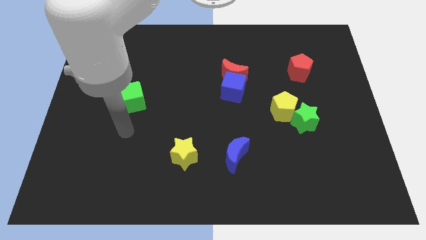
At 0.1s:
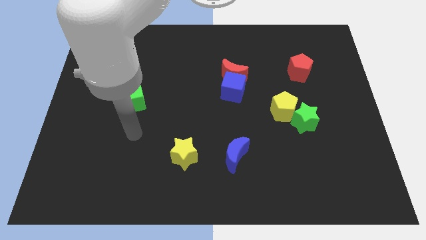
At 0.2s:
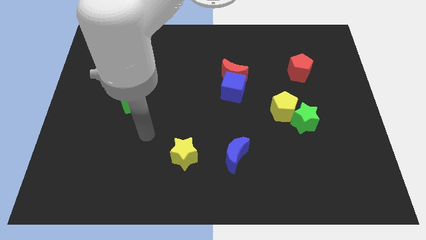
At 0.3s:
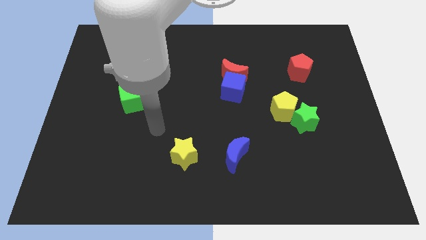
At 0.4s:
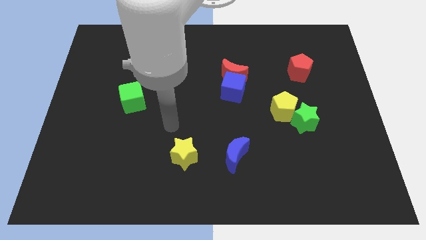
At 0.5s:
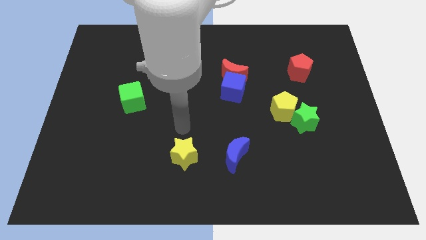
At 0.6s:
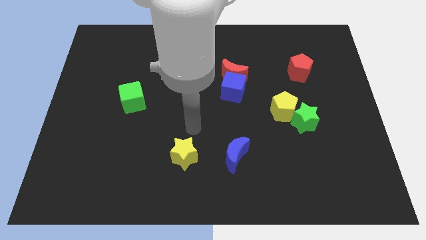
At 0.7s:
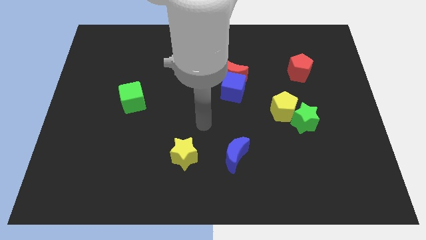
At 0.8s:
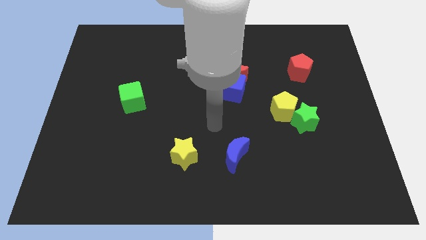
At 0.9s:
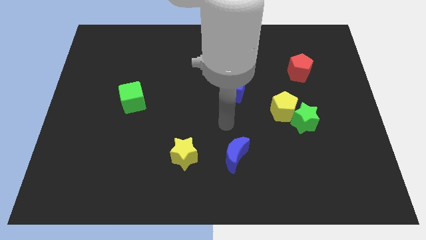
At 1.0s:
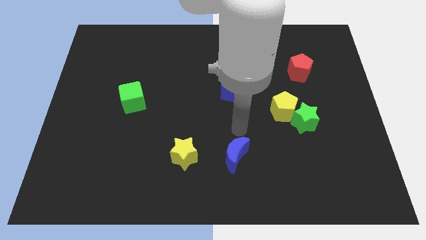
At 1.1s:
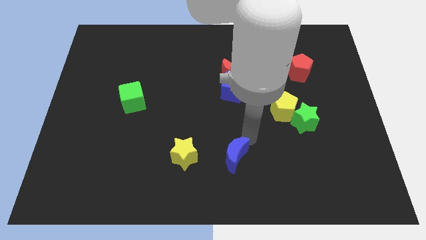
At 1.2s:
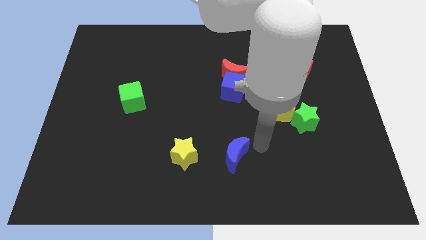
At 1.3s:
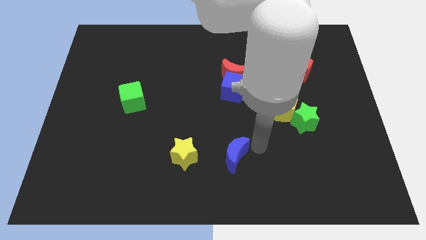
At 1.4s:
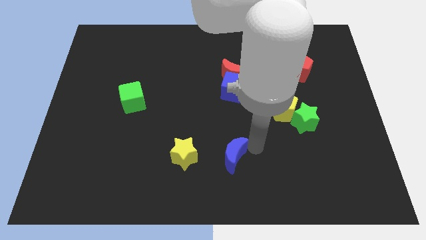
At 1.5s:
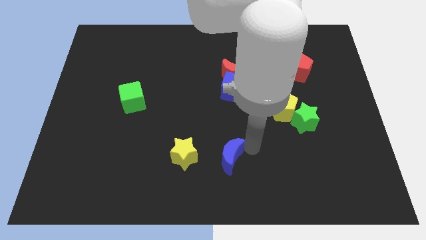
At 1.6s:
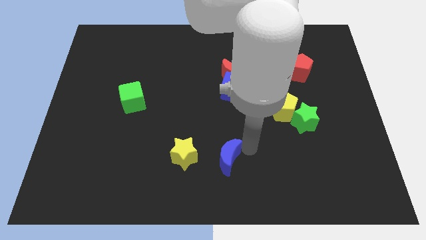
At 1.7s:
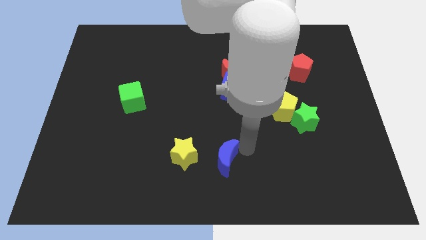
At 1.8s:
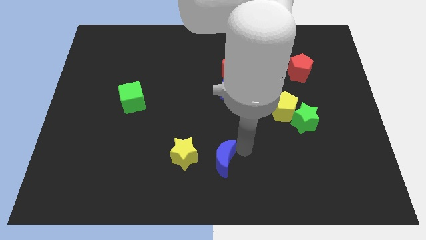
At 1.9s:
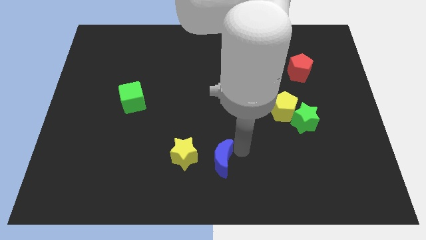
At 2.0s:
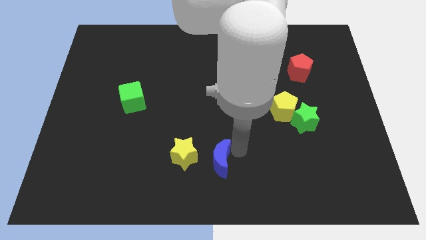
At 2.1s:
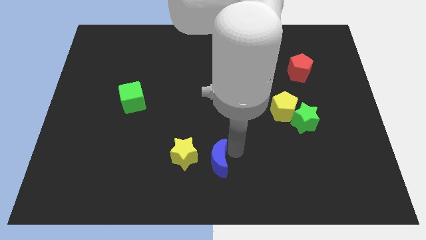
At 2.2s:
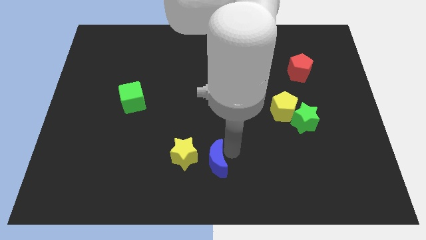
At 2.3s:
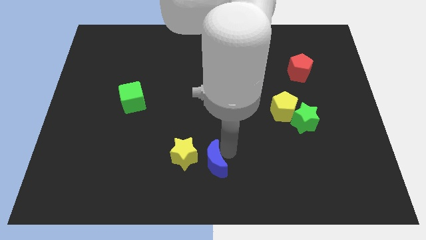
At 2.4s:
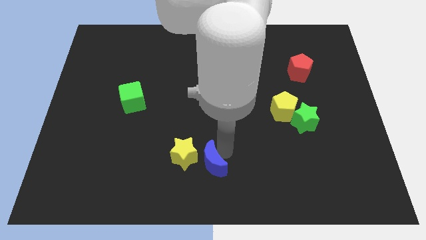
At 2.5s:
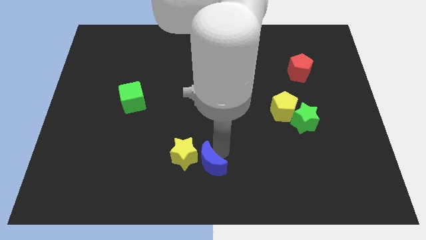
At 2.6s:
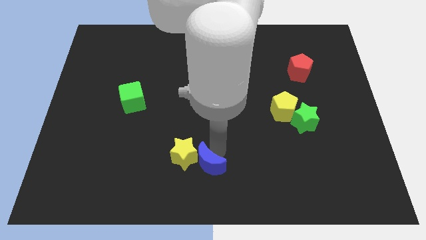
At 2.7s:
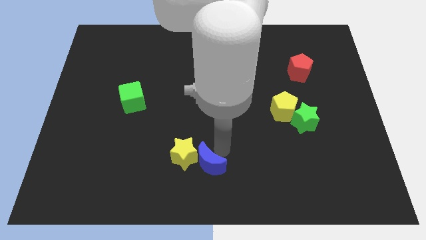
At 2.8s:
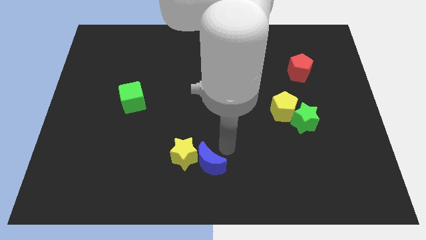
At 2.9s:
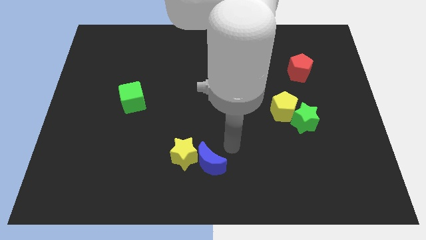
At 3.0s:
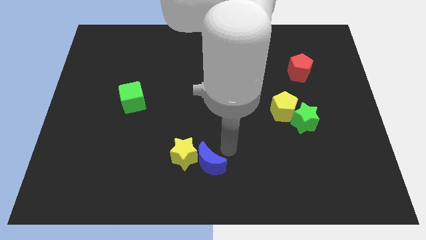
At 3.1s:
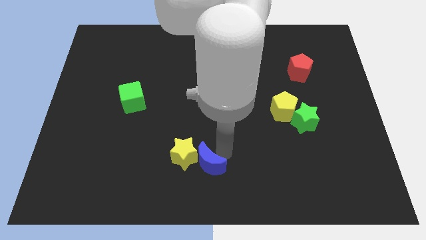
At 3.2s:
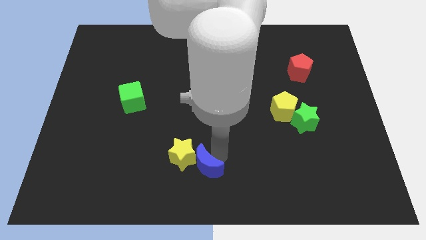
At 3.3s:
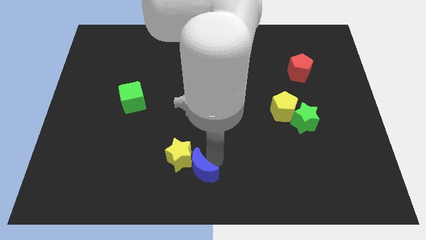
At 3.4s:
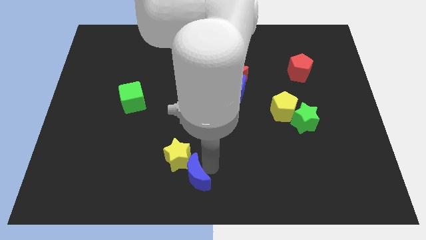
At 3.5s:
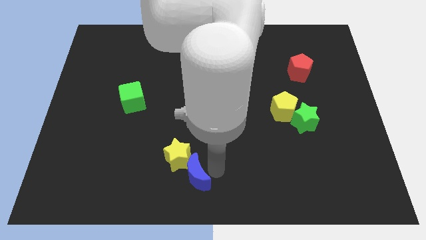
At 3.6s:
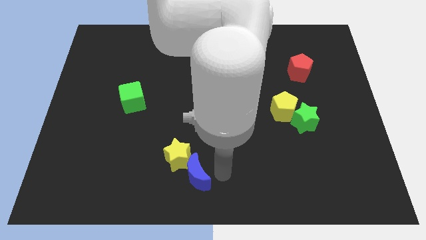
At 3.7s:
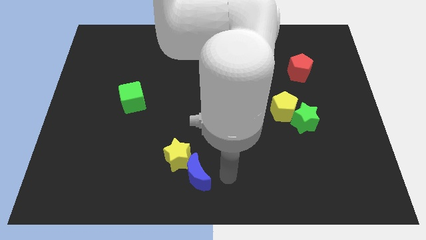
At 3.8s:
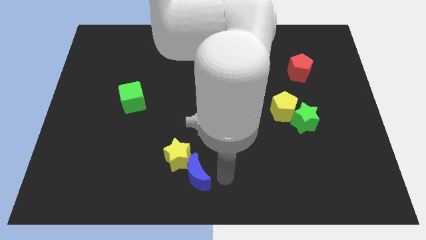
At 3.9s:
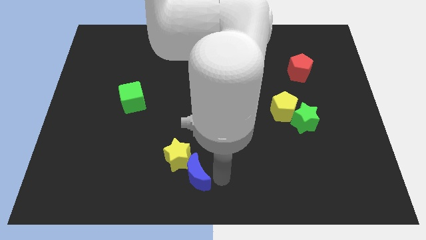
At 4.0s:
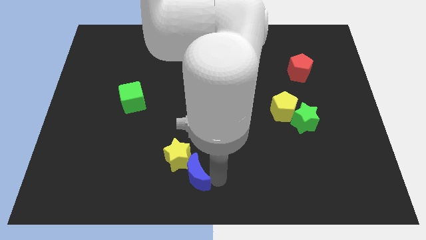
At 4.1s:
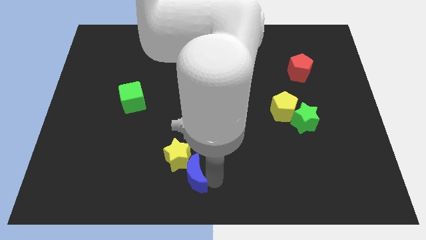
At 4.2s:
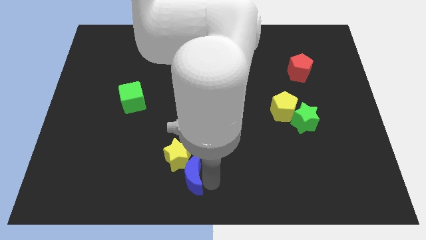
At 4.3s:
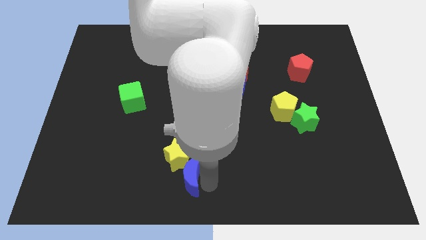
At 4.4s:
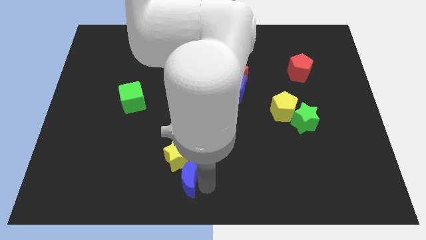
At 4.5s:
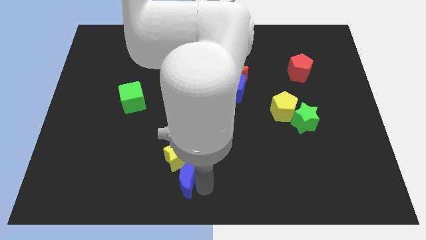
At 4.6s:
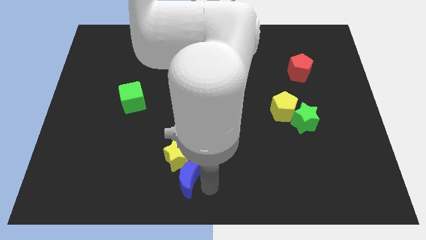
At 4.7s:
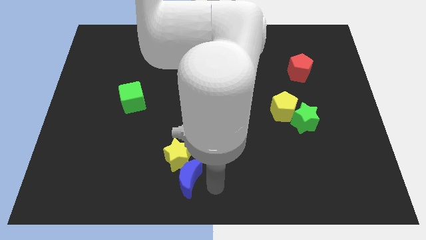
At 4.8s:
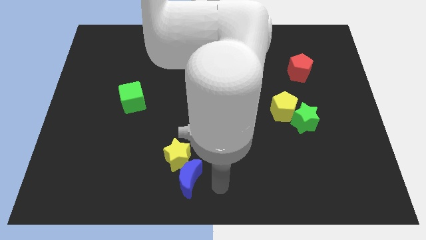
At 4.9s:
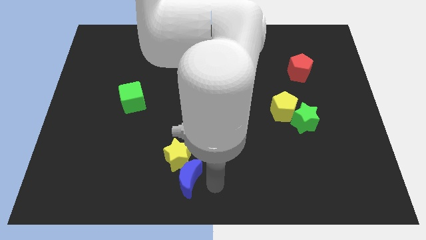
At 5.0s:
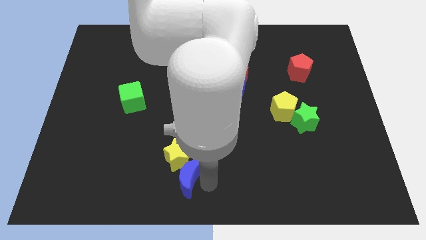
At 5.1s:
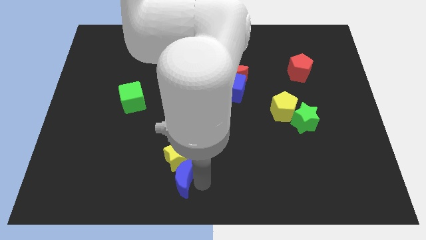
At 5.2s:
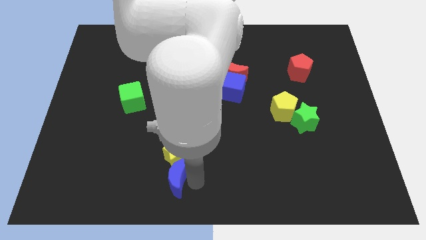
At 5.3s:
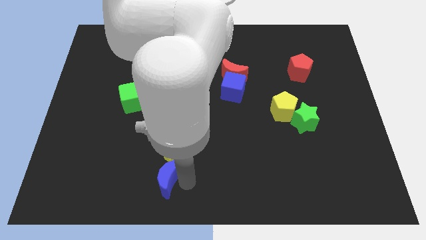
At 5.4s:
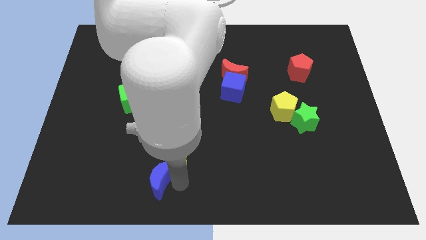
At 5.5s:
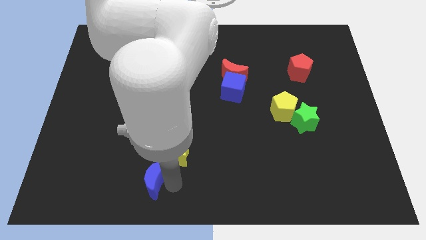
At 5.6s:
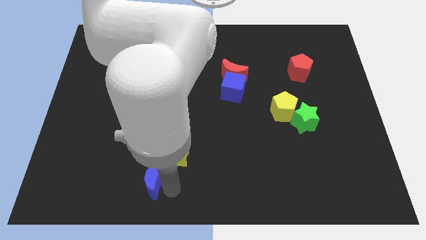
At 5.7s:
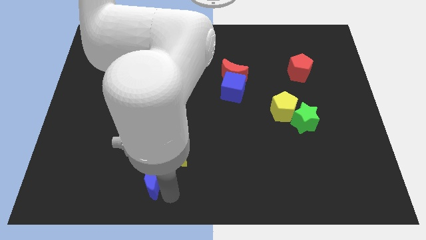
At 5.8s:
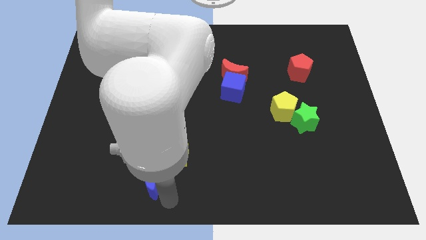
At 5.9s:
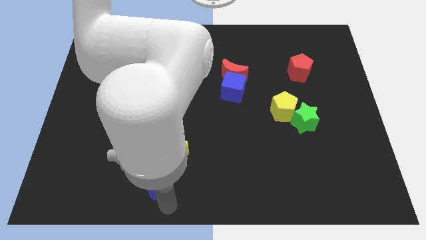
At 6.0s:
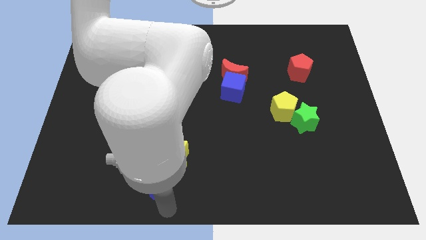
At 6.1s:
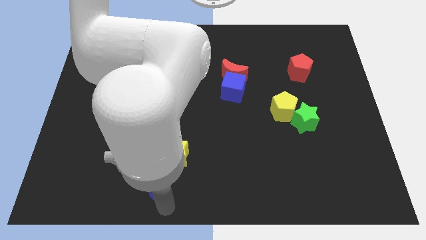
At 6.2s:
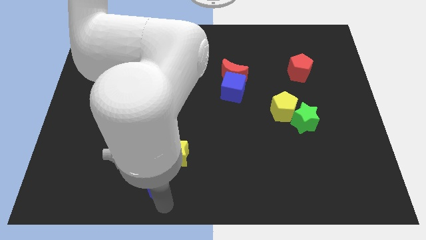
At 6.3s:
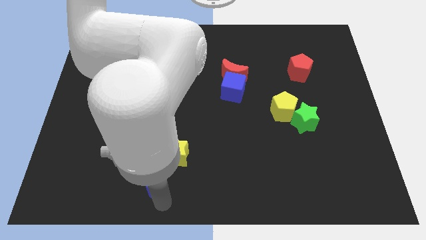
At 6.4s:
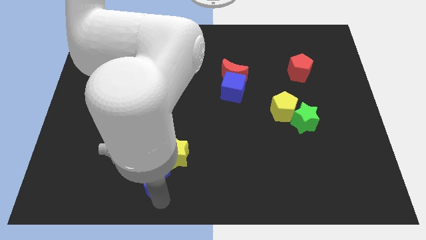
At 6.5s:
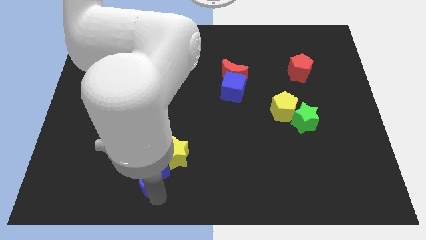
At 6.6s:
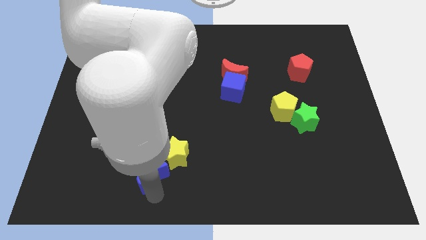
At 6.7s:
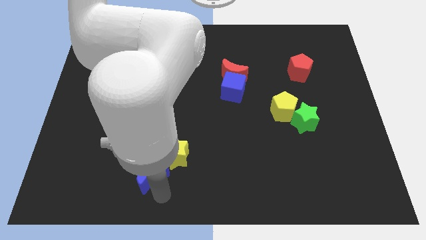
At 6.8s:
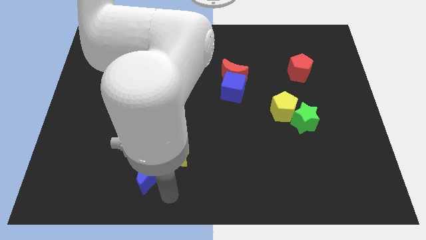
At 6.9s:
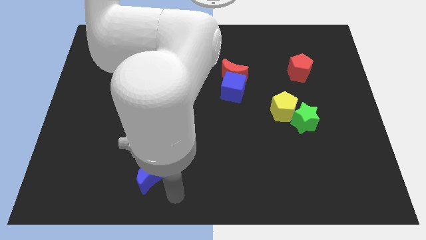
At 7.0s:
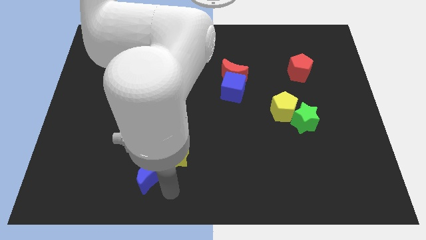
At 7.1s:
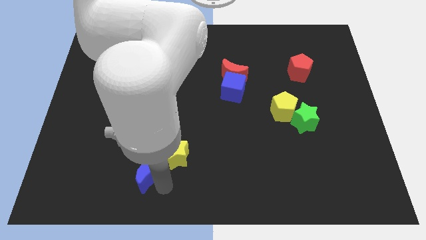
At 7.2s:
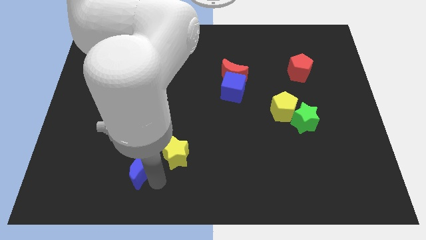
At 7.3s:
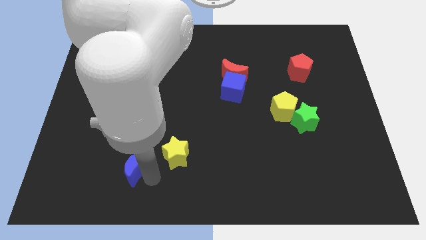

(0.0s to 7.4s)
push the blue moon to the left
